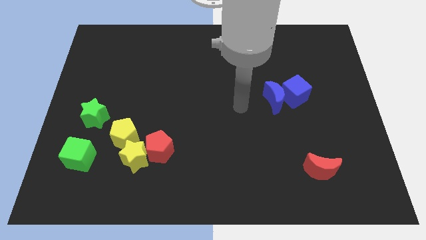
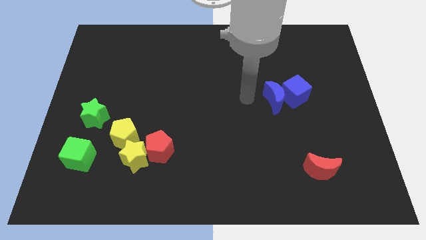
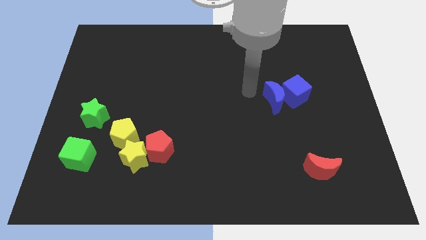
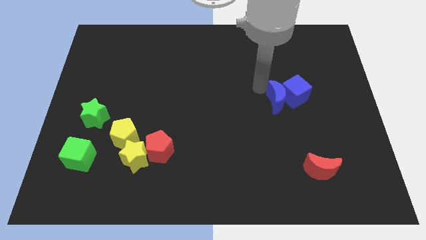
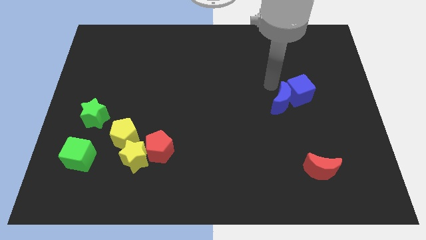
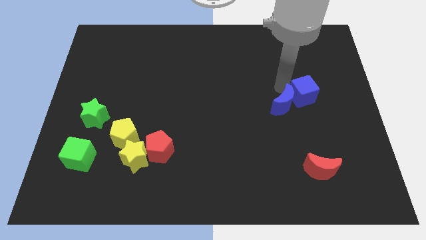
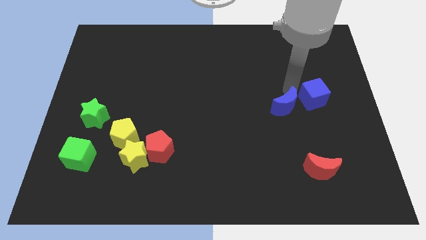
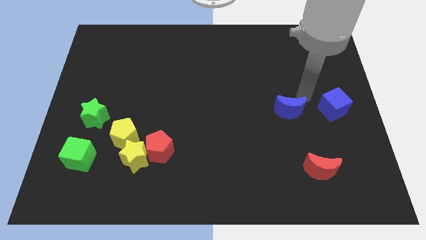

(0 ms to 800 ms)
move the blue moon away from the blue cube

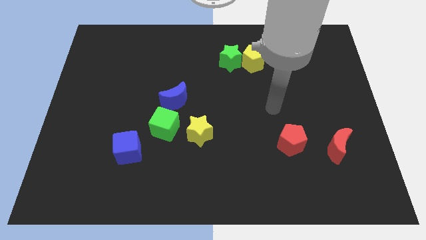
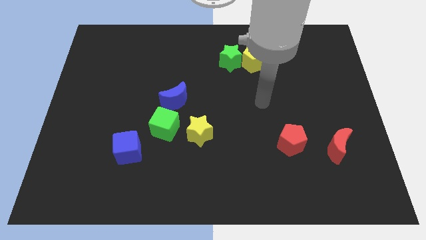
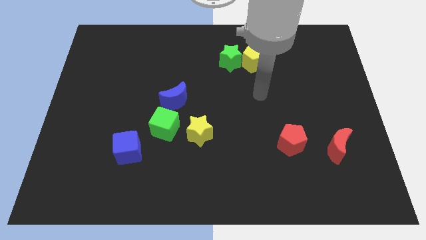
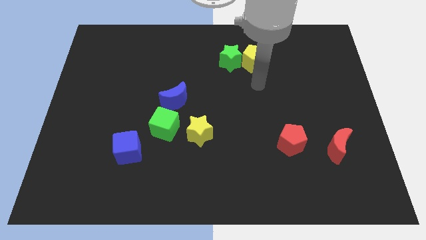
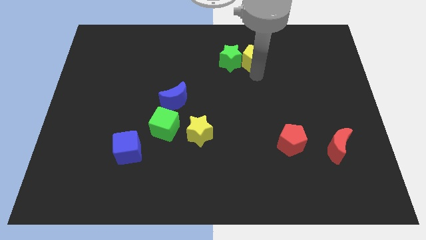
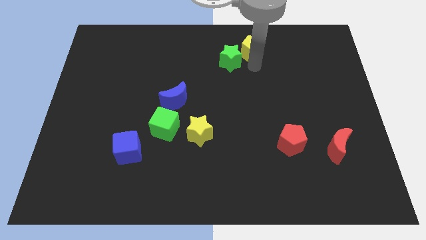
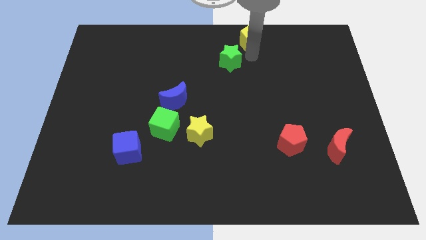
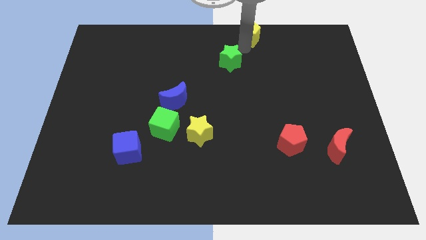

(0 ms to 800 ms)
separate the green star from the yellow pentagon

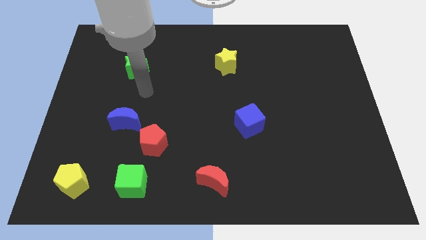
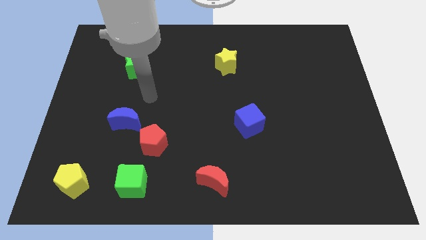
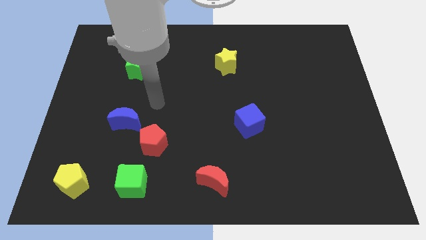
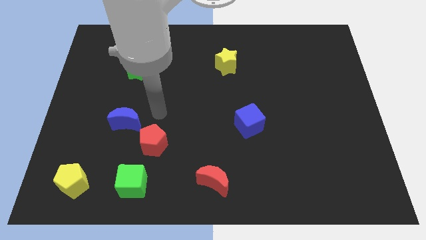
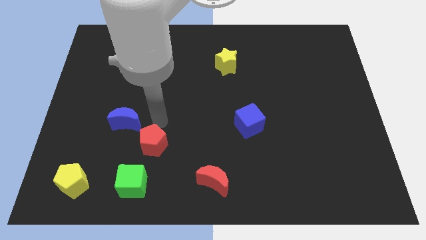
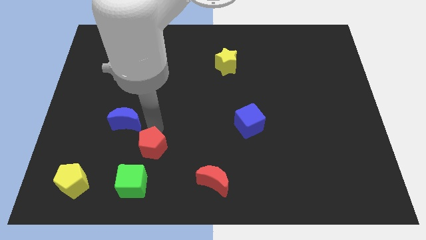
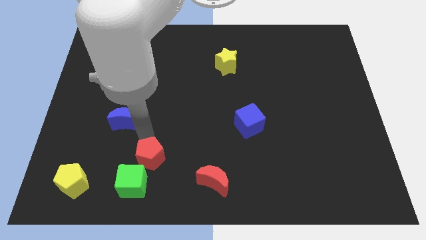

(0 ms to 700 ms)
move the blue moon away from the red pentagon

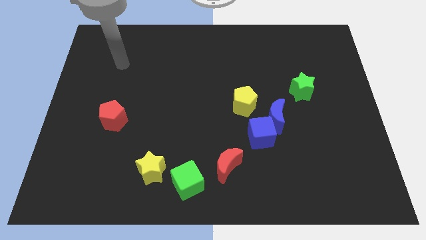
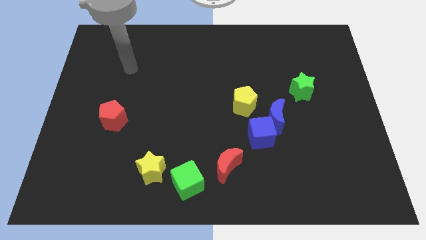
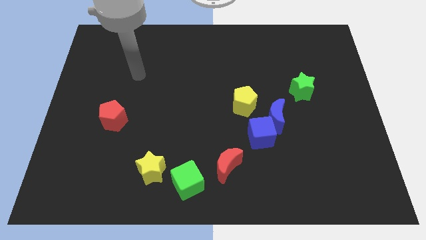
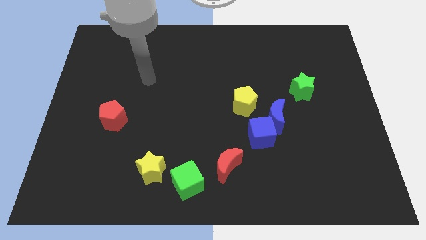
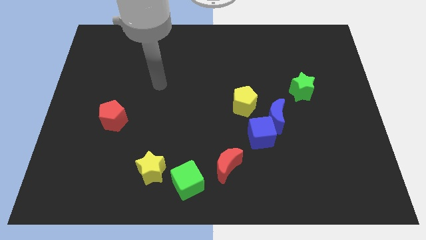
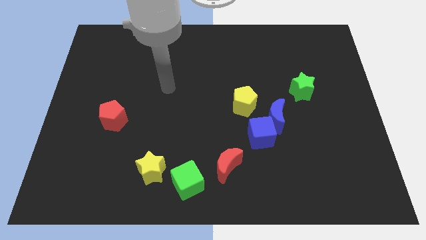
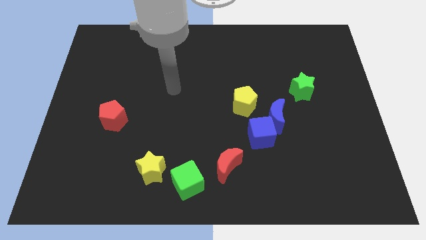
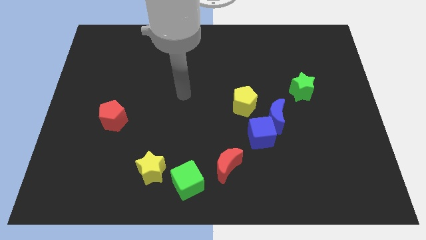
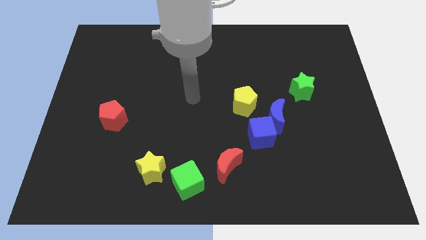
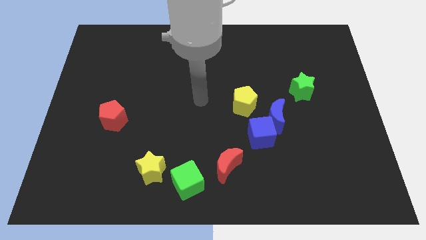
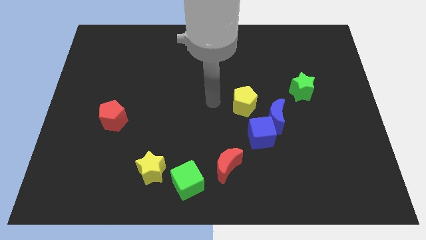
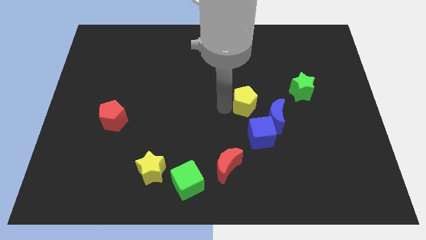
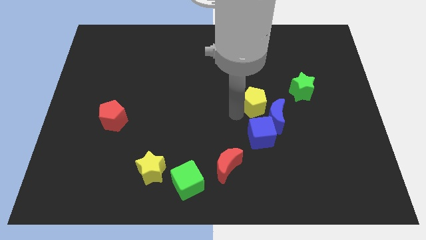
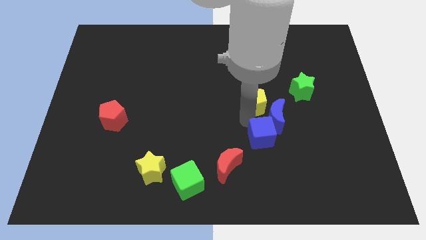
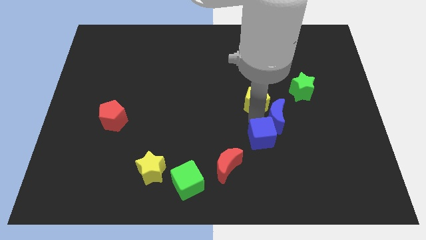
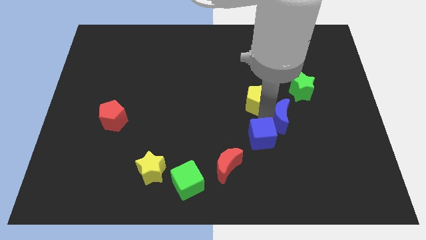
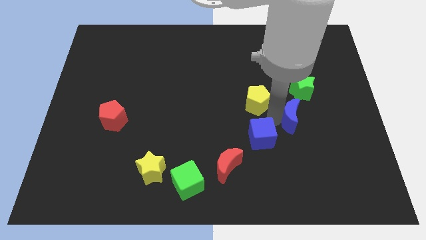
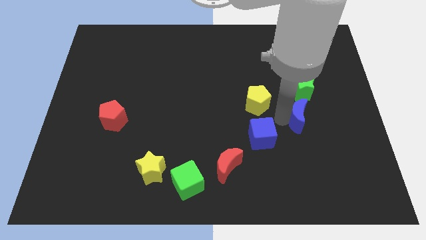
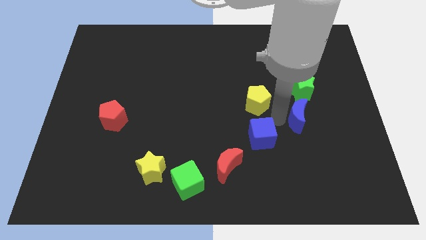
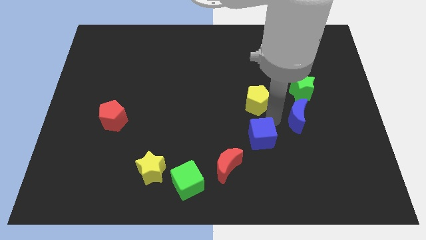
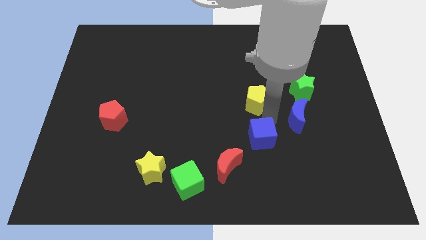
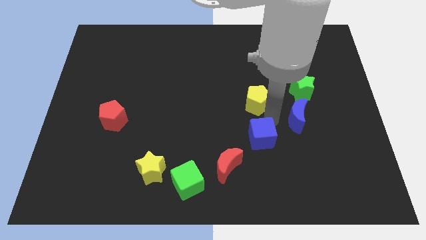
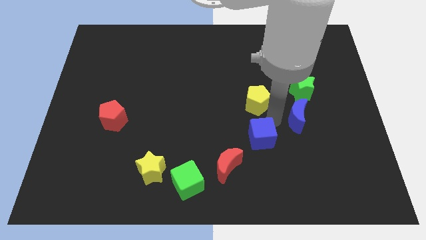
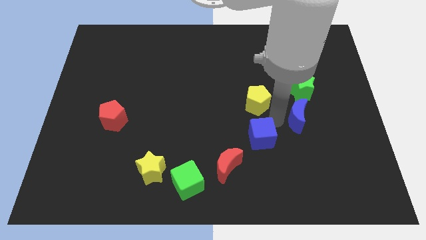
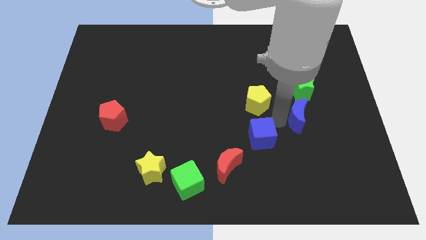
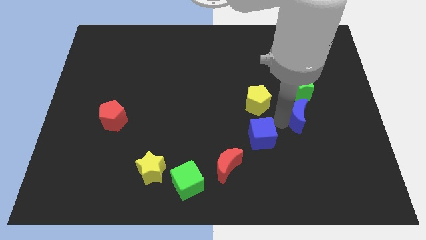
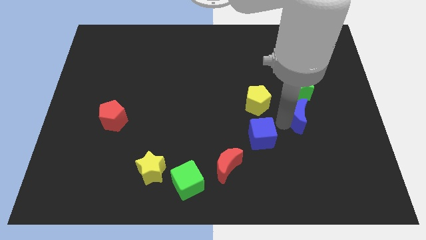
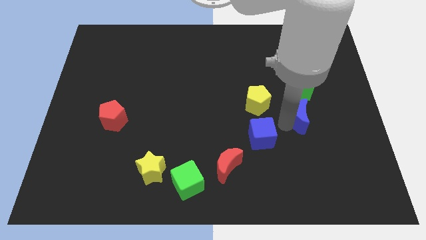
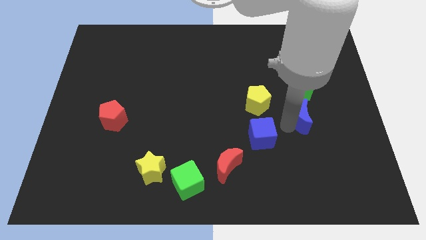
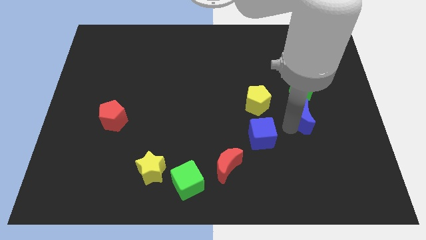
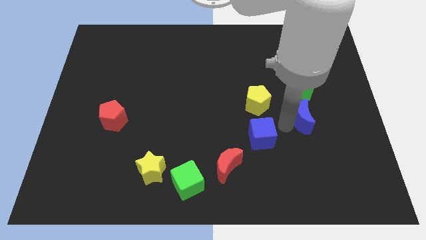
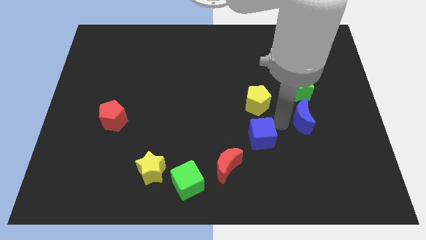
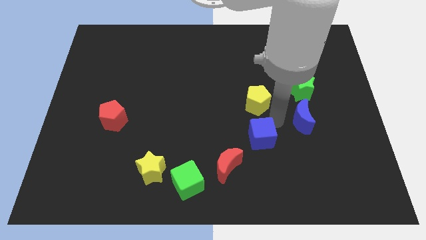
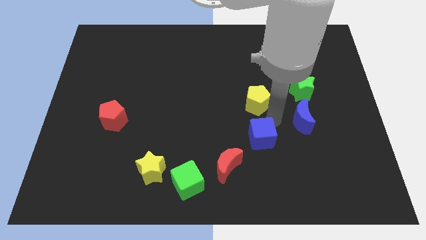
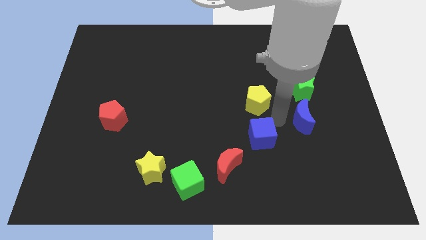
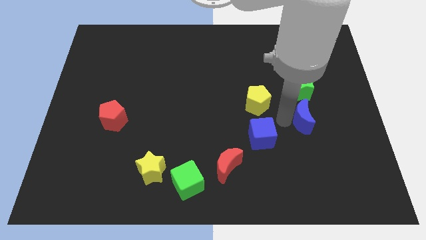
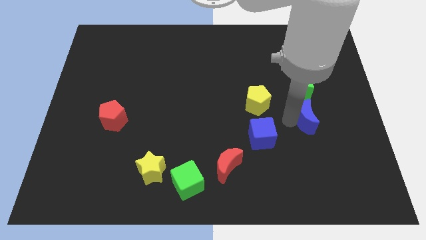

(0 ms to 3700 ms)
separate the blue moon from the blue cube and yellow pentagon

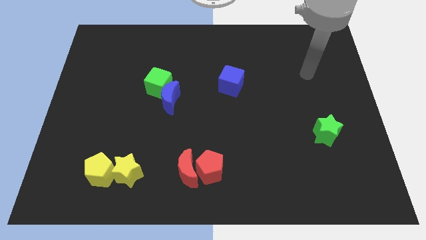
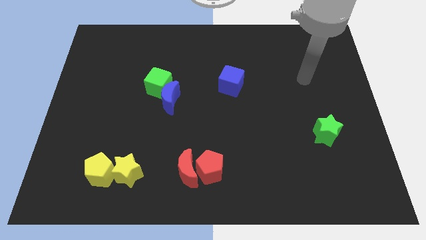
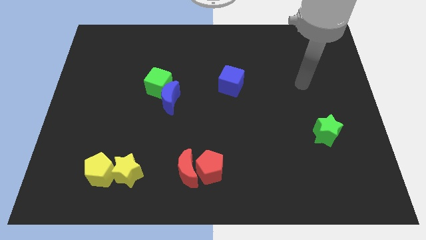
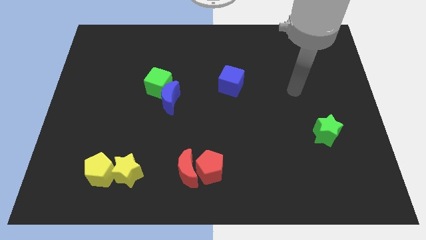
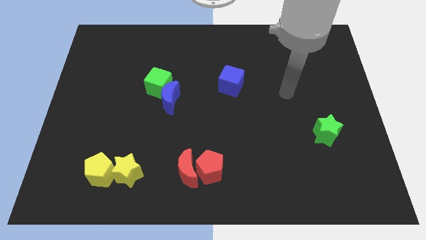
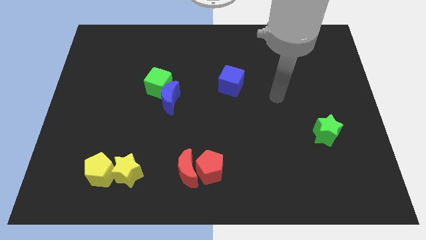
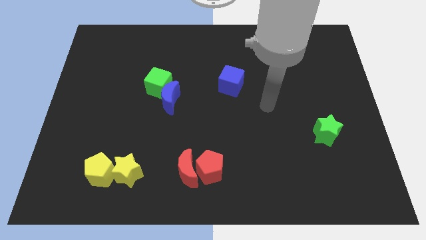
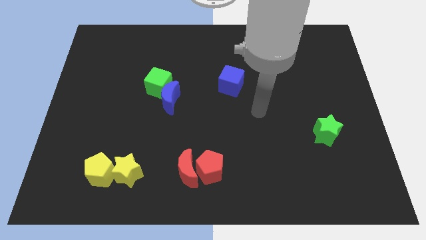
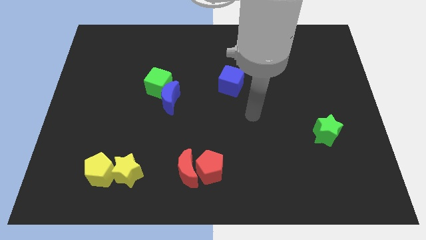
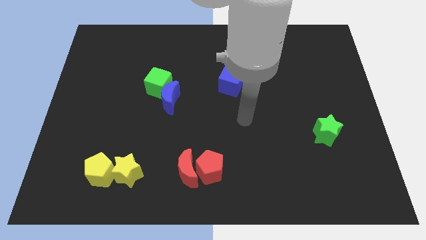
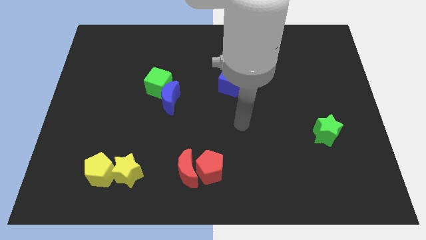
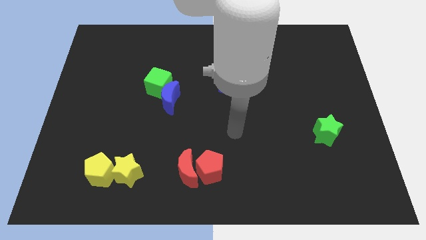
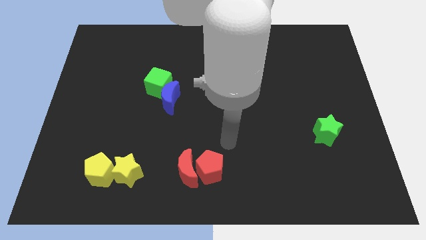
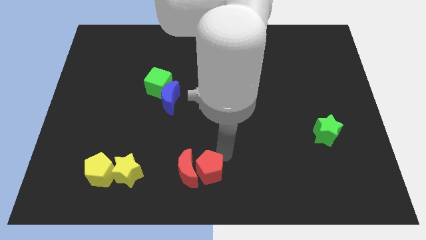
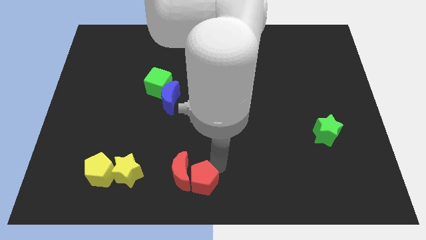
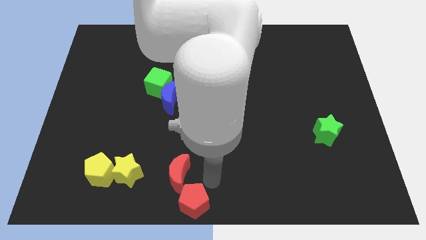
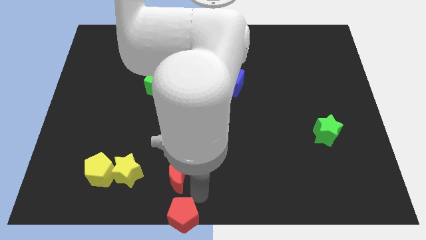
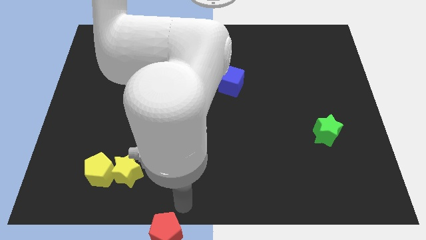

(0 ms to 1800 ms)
pull the red moon apart from the red pentagon

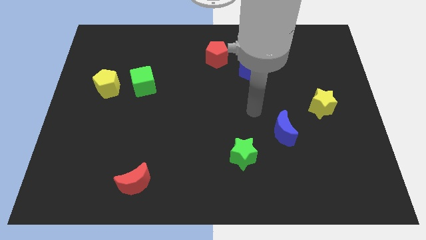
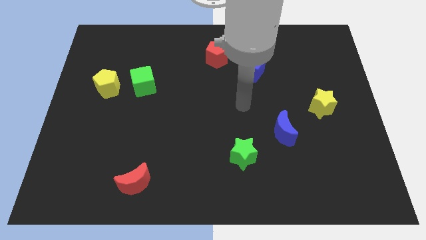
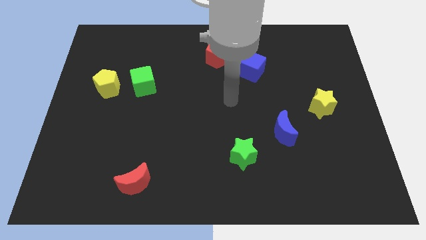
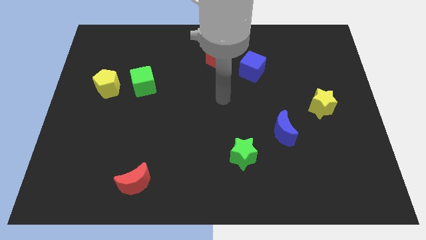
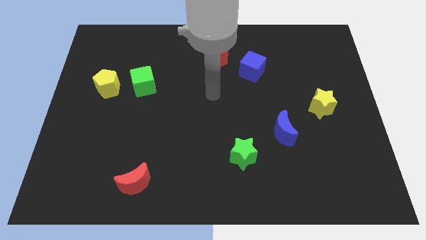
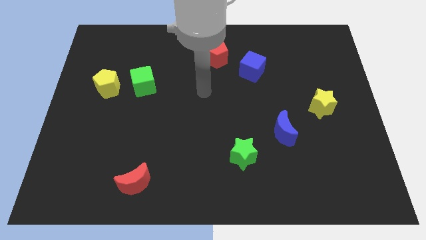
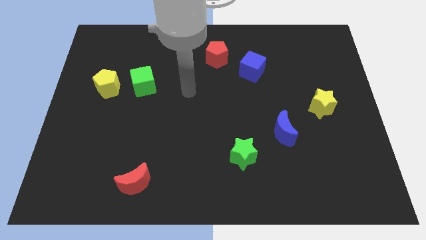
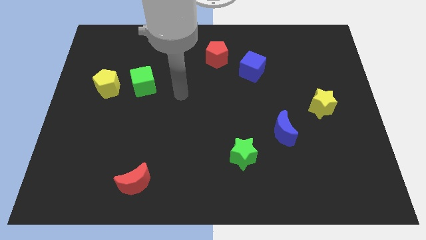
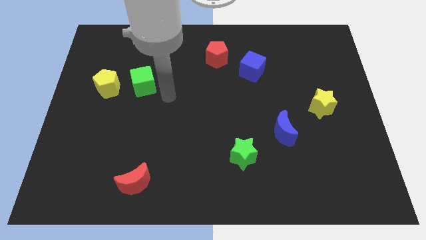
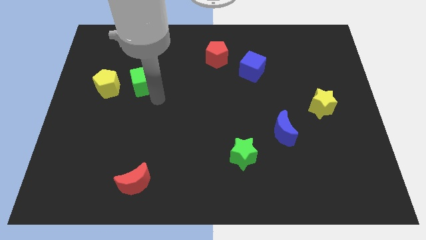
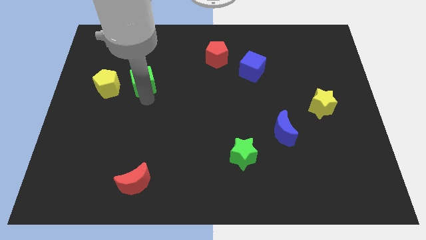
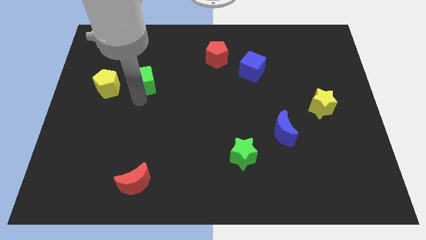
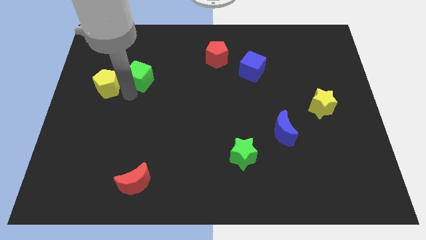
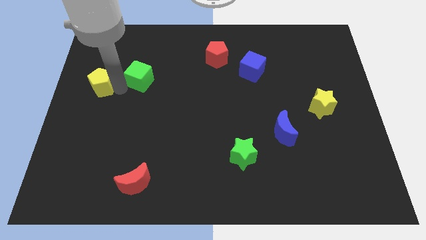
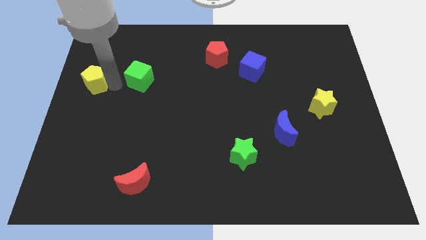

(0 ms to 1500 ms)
move the green cube away from the yellow pentagon

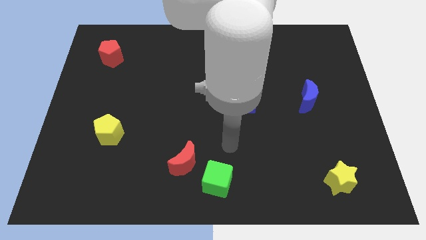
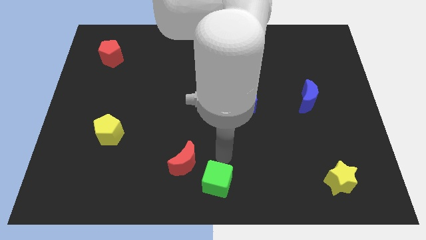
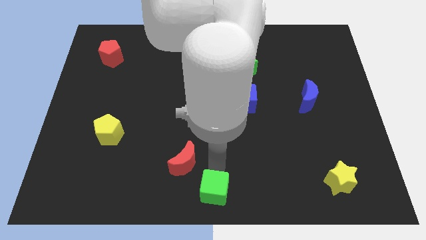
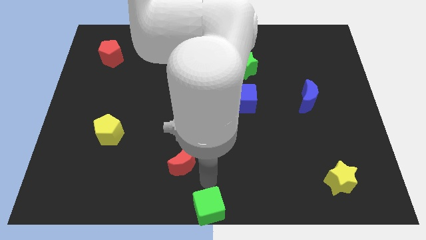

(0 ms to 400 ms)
move the red moon away from the green cube
